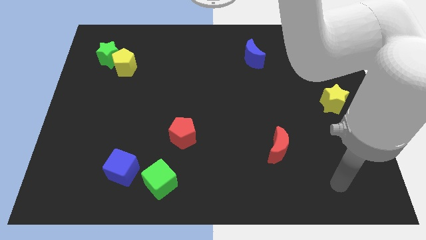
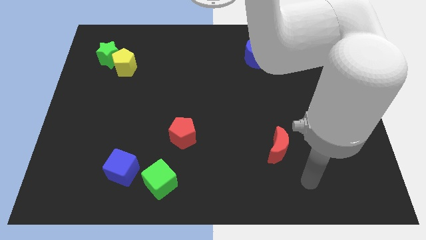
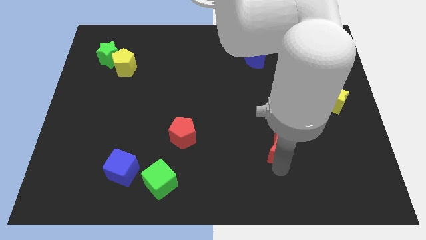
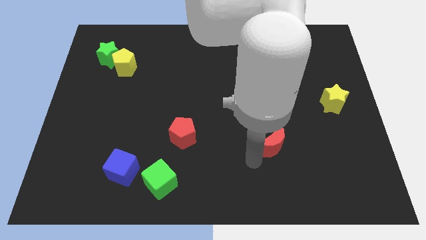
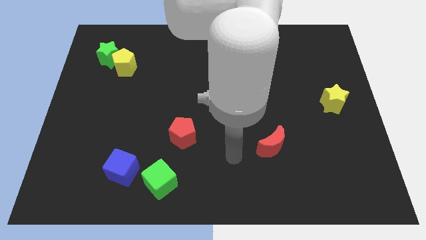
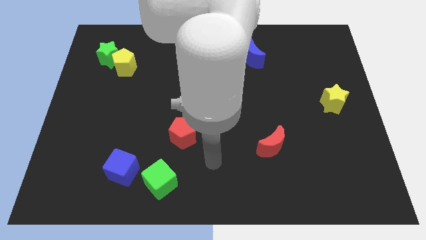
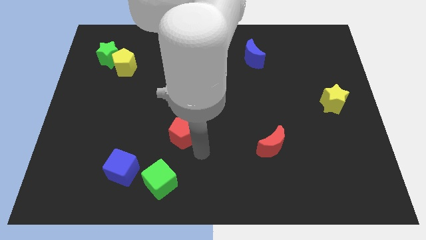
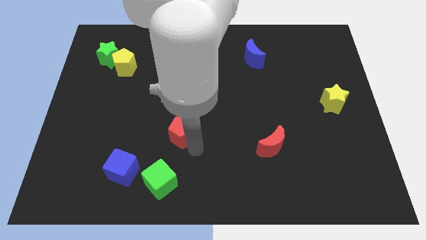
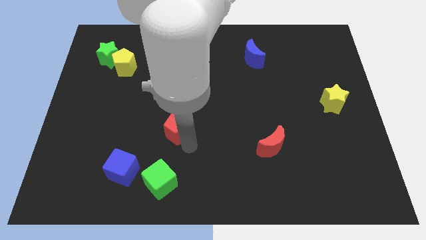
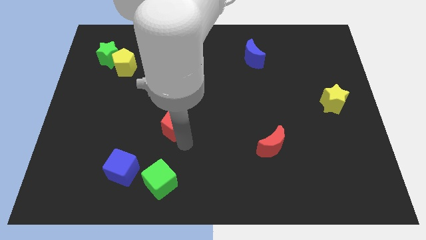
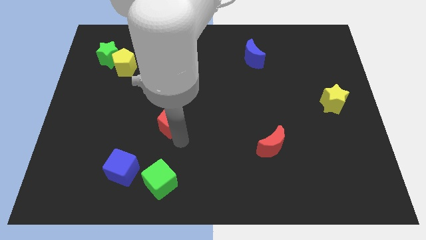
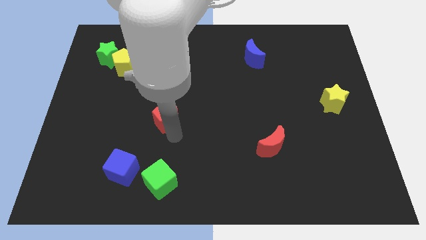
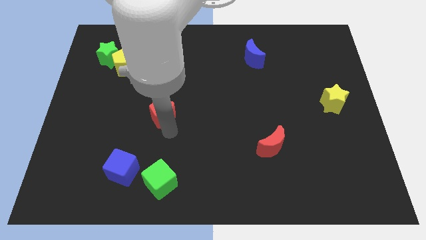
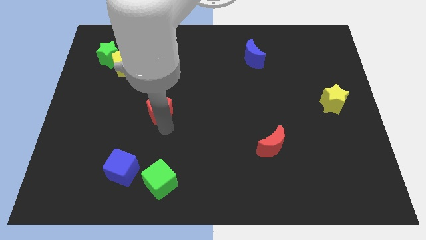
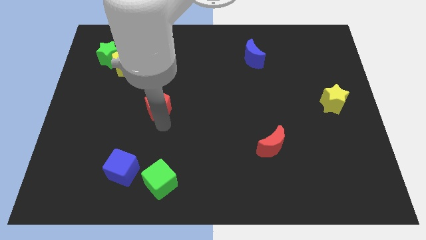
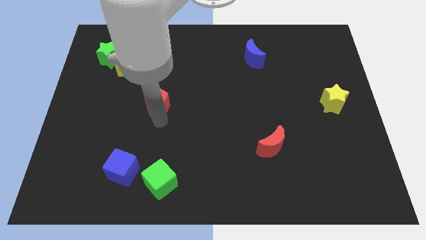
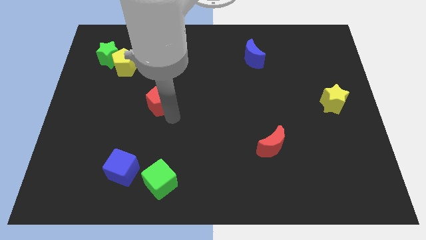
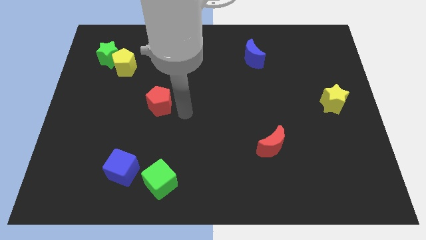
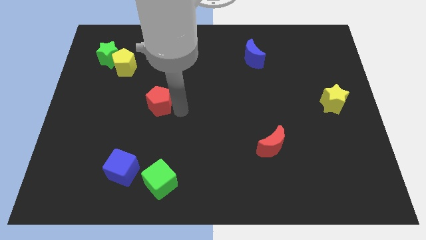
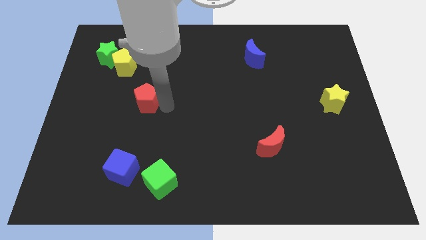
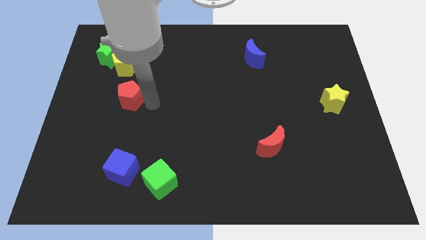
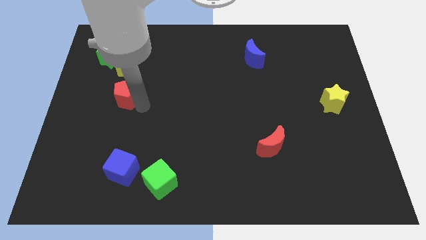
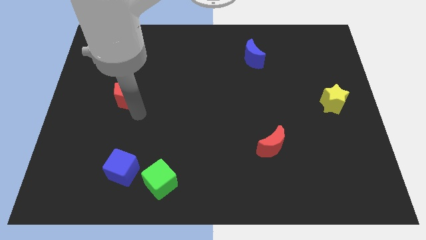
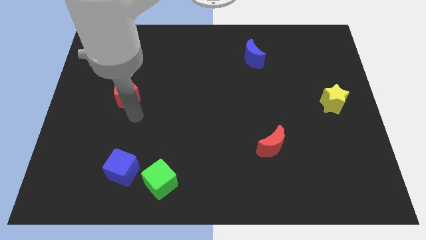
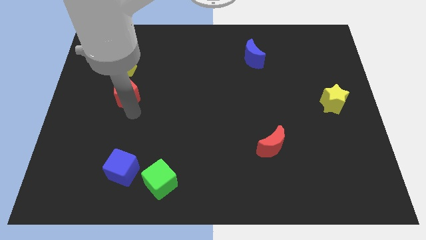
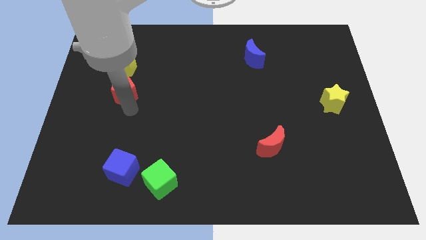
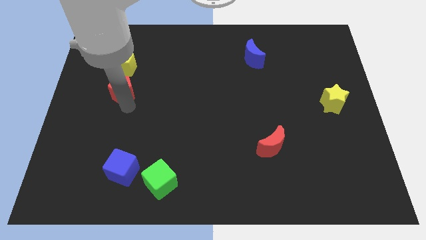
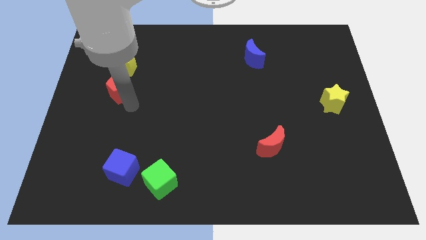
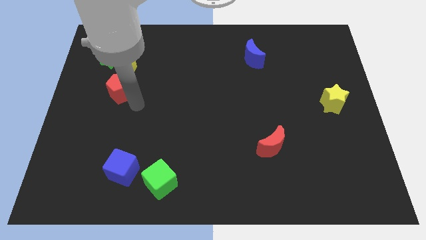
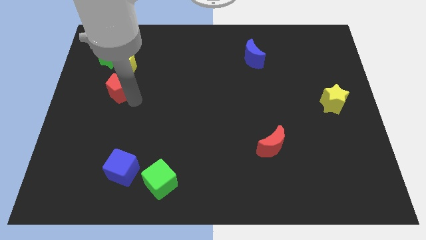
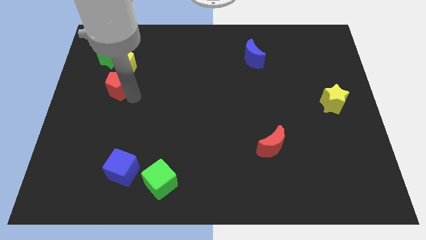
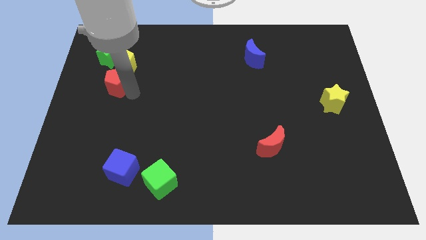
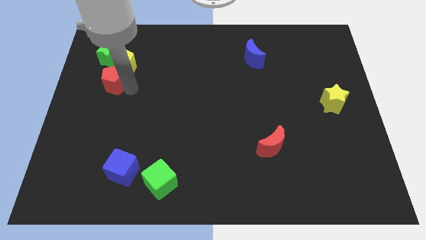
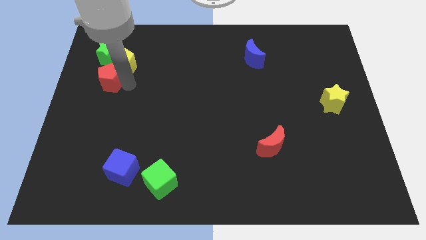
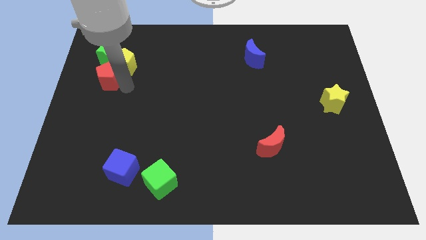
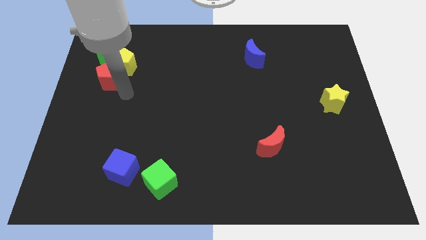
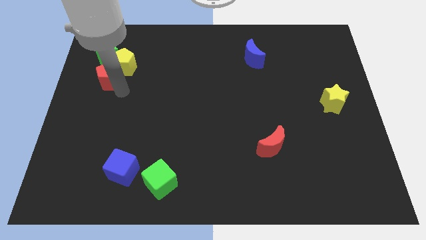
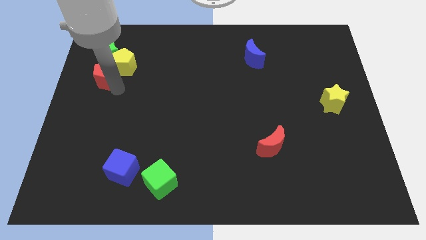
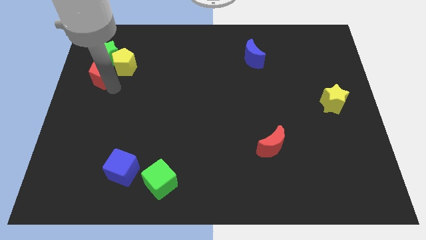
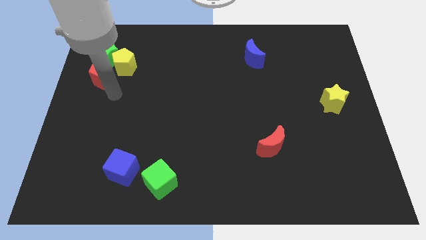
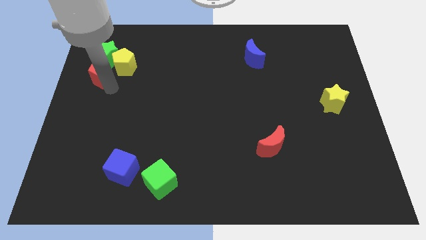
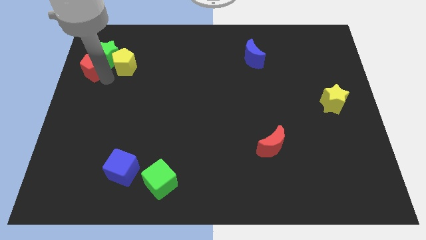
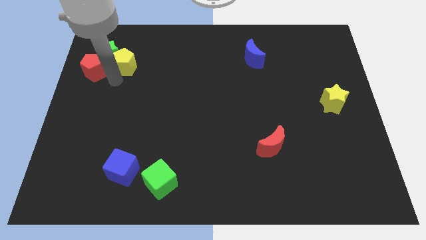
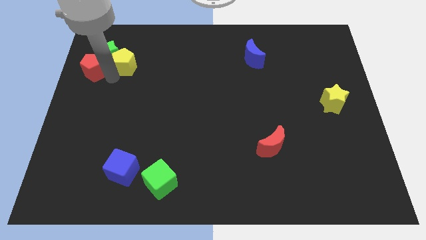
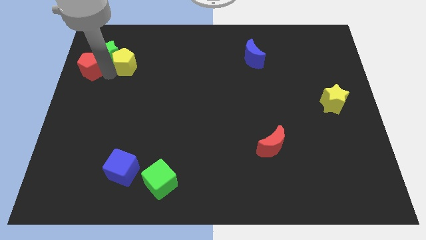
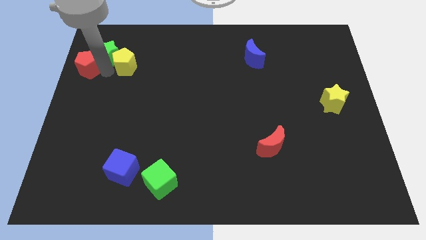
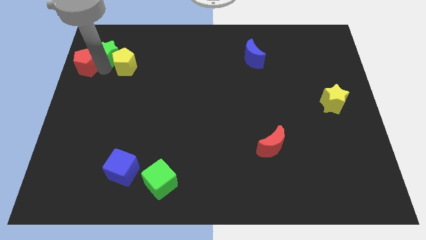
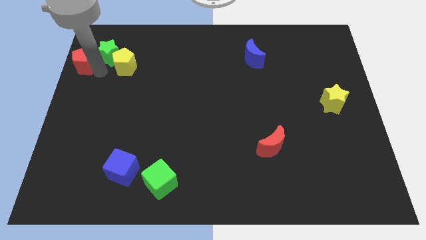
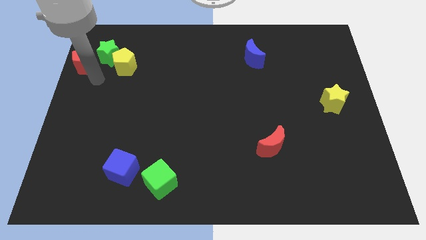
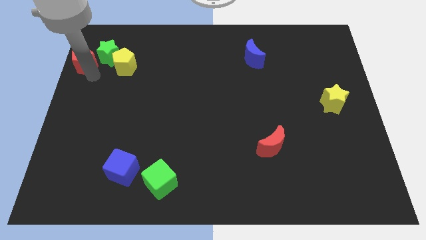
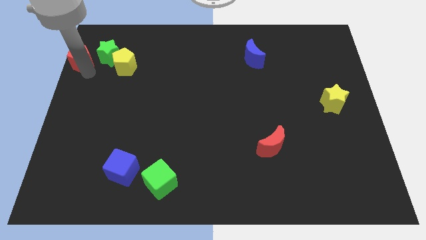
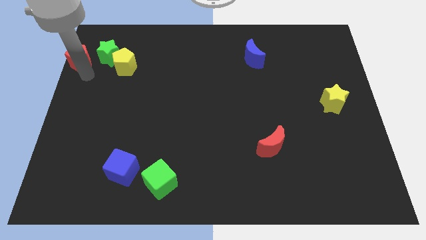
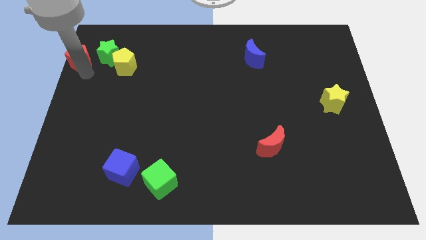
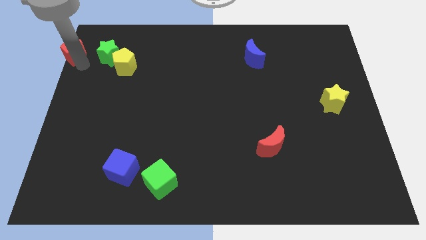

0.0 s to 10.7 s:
put the red pentagon to the top left corner

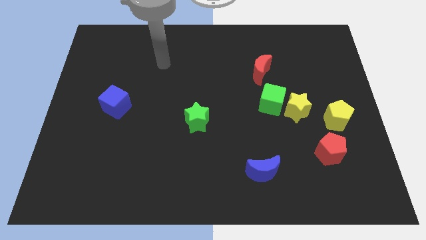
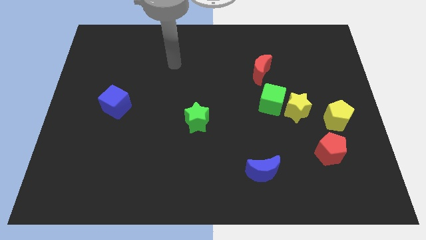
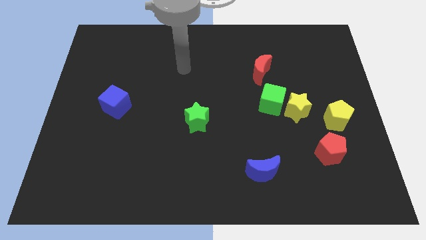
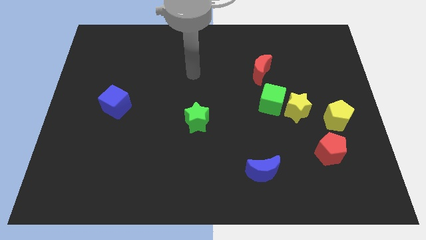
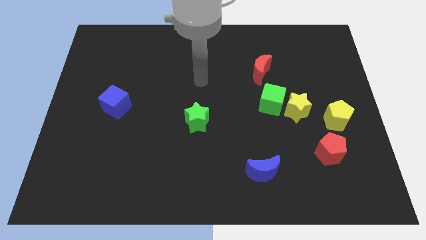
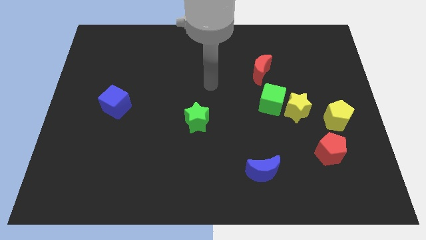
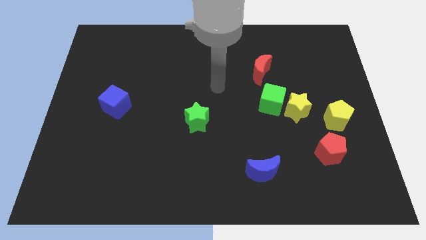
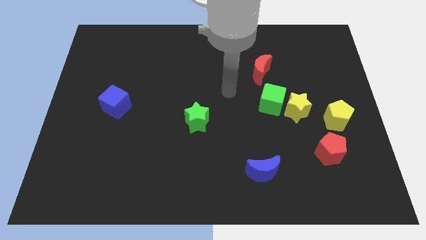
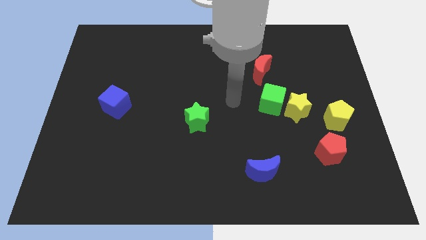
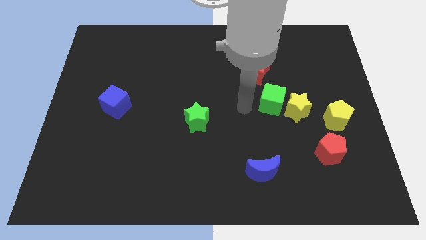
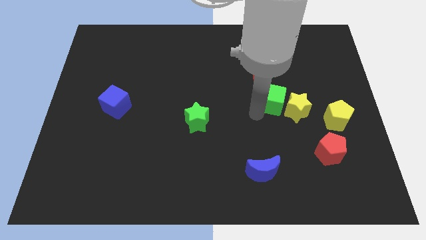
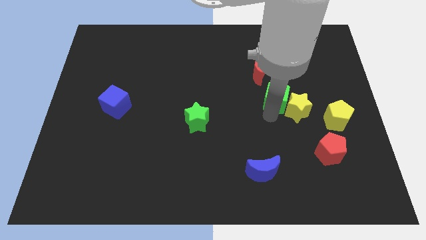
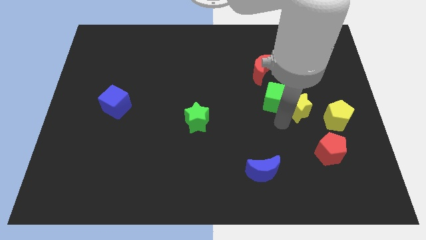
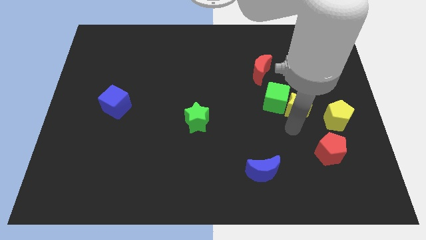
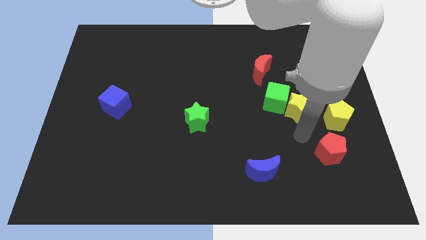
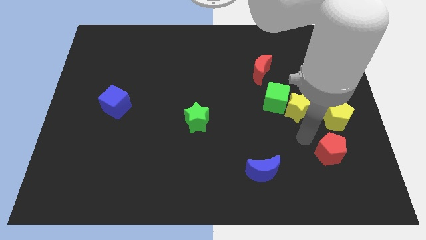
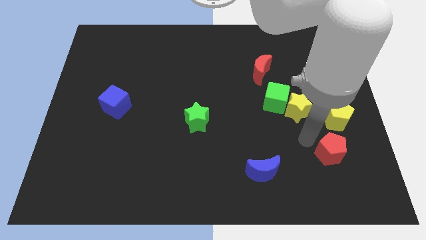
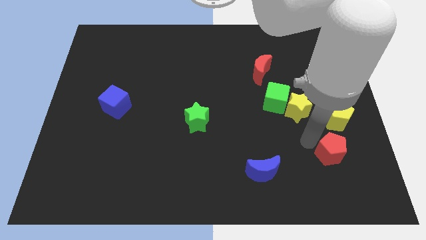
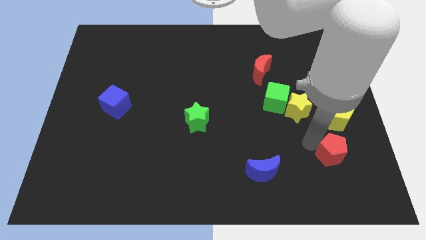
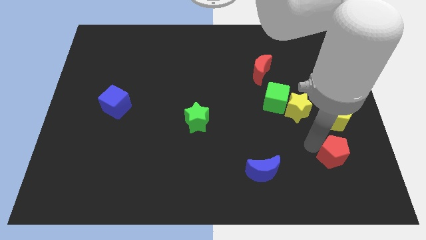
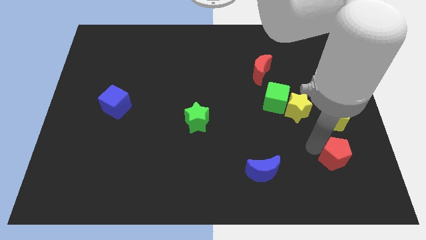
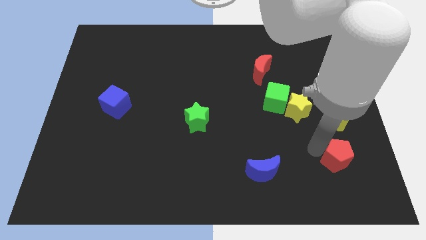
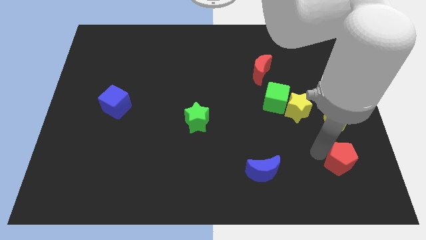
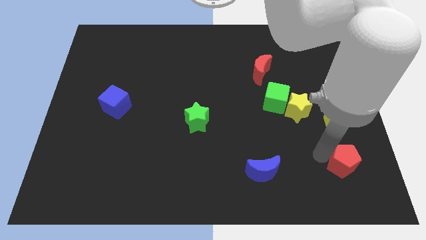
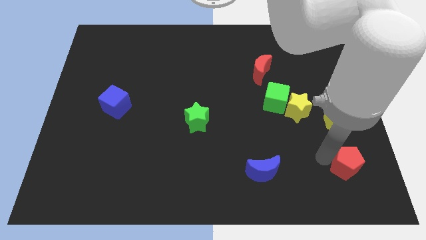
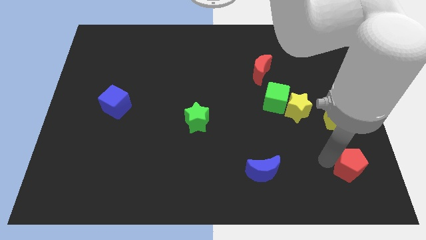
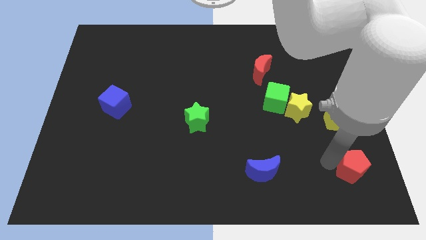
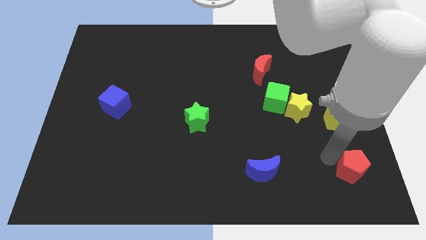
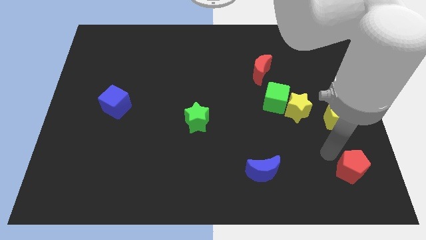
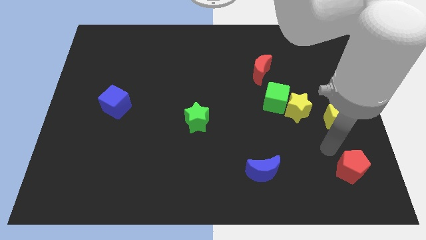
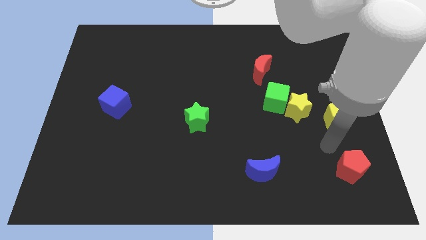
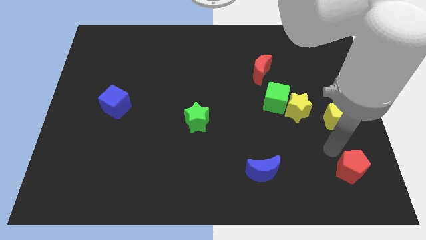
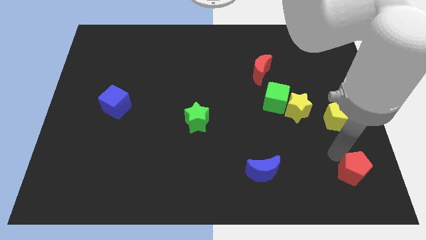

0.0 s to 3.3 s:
slide the red pentagon to the lower right corner
